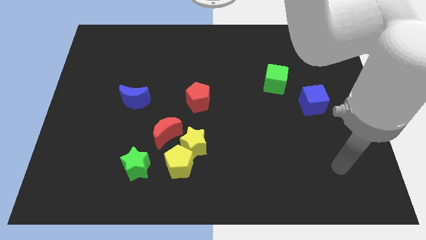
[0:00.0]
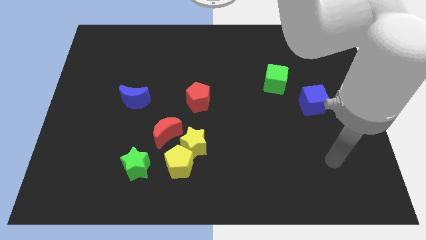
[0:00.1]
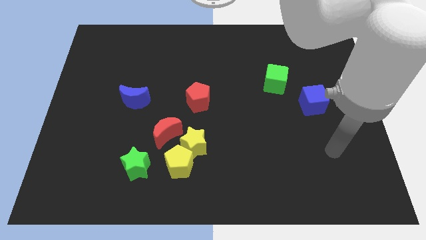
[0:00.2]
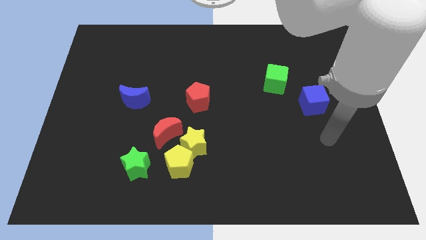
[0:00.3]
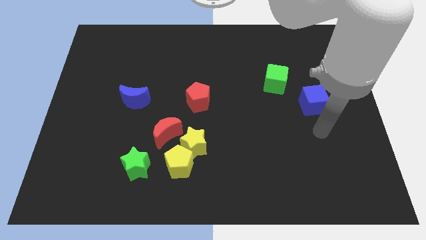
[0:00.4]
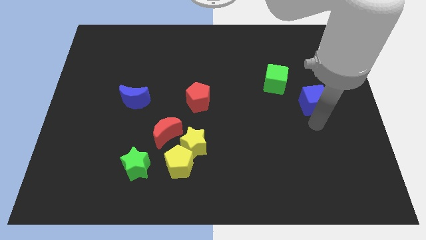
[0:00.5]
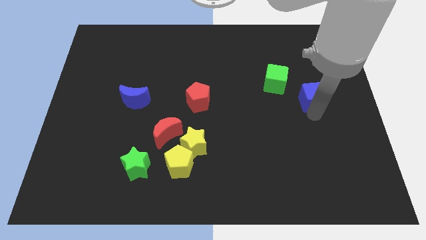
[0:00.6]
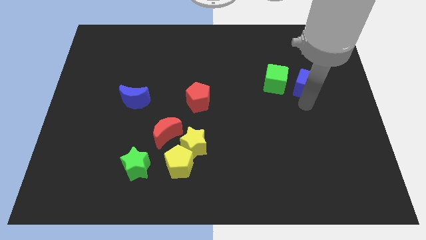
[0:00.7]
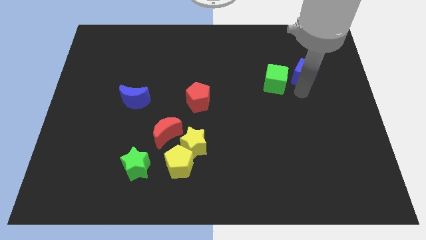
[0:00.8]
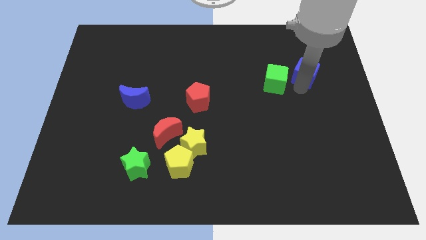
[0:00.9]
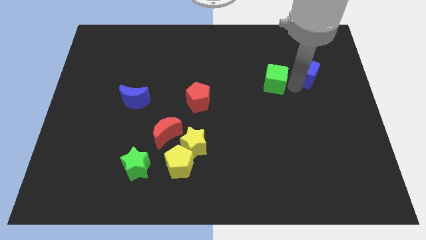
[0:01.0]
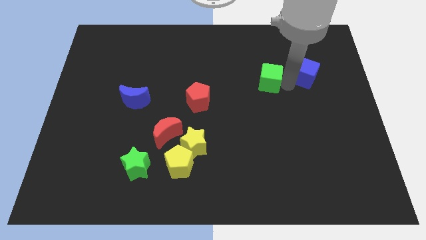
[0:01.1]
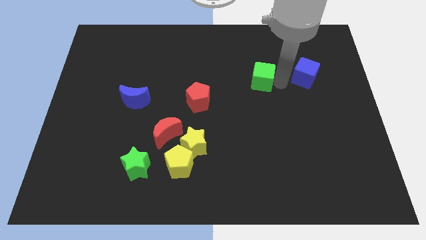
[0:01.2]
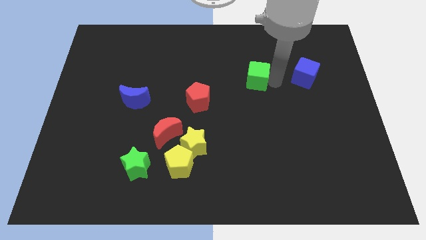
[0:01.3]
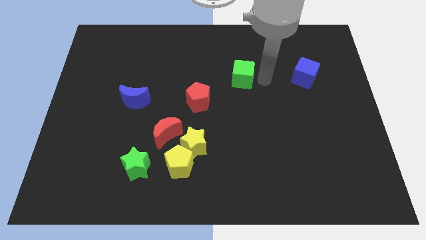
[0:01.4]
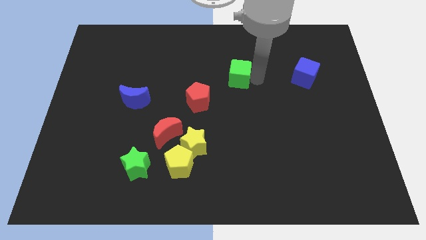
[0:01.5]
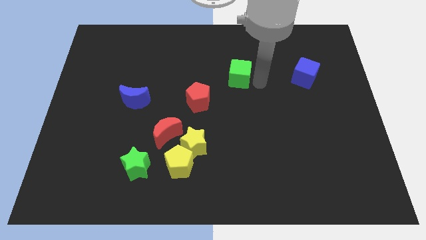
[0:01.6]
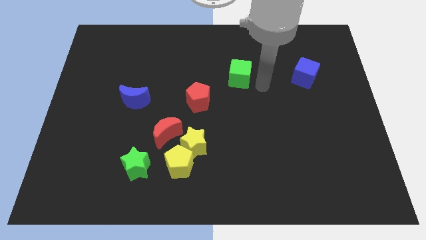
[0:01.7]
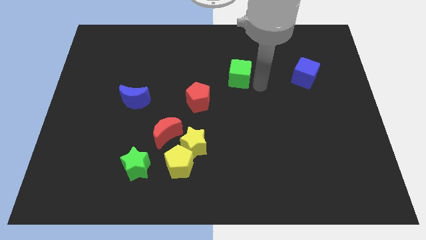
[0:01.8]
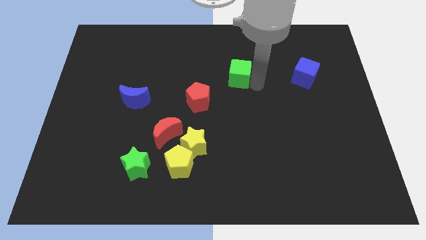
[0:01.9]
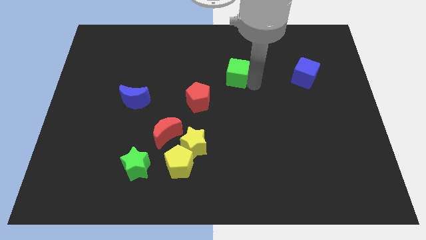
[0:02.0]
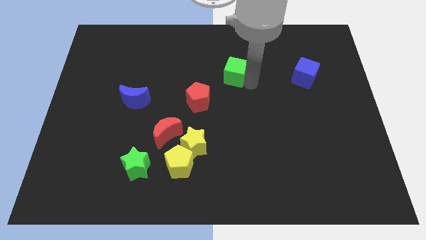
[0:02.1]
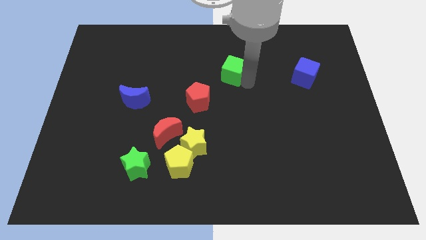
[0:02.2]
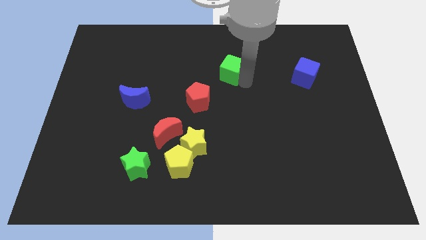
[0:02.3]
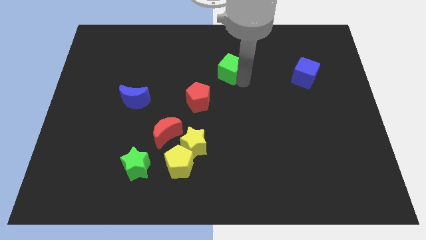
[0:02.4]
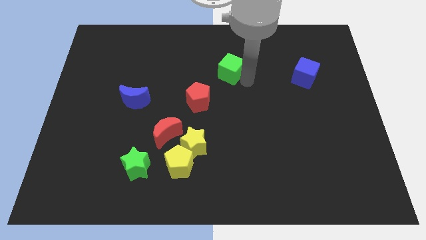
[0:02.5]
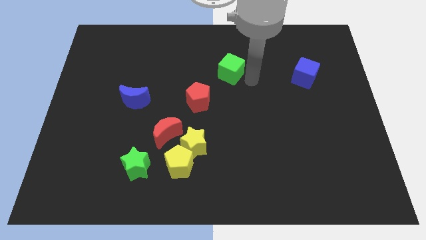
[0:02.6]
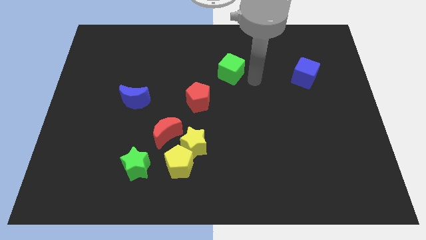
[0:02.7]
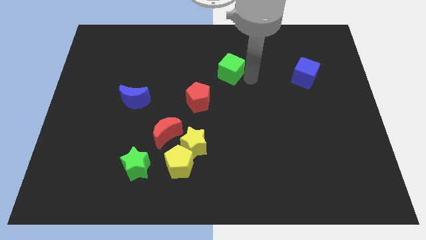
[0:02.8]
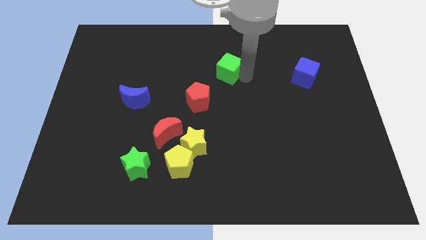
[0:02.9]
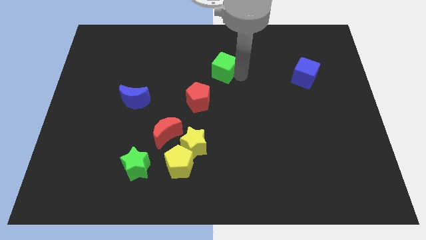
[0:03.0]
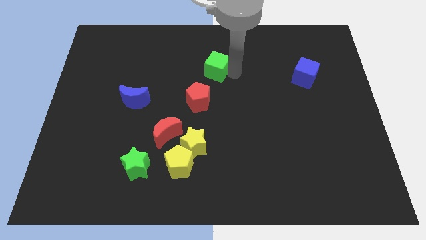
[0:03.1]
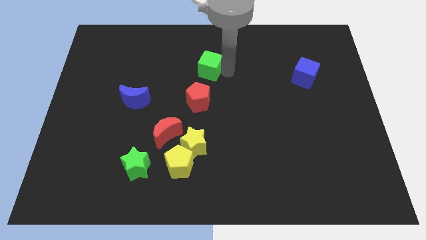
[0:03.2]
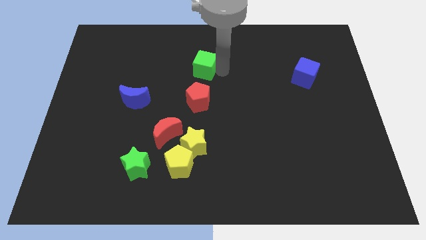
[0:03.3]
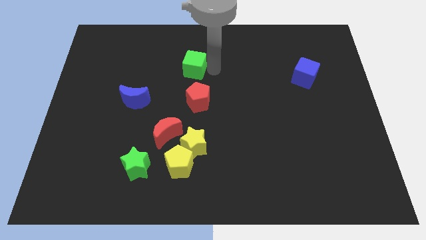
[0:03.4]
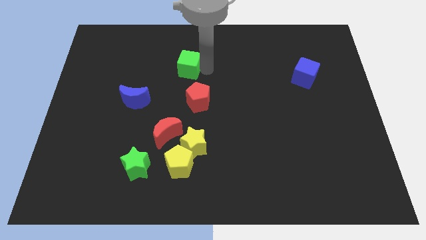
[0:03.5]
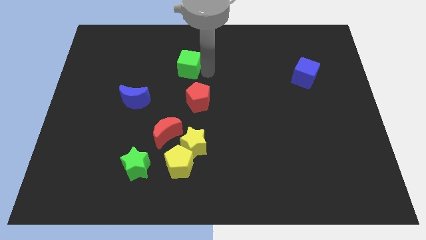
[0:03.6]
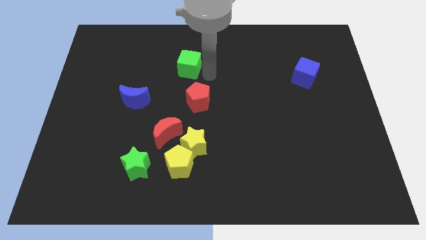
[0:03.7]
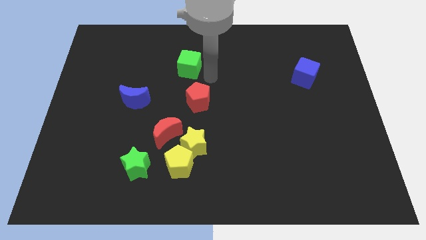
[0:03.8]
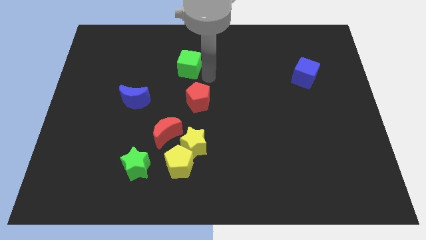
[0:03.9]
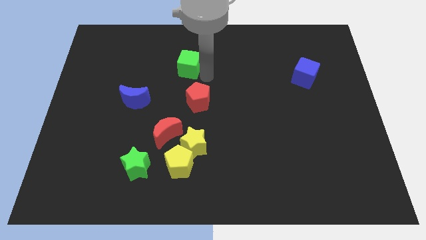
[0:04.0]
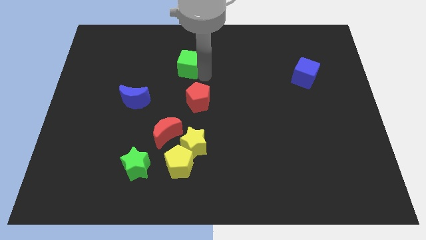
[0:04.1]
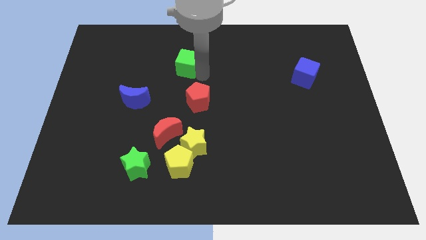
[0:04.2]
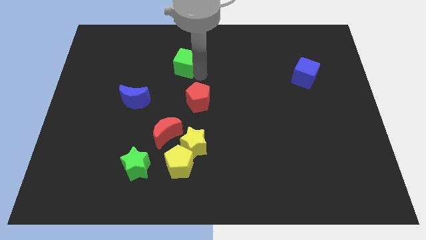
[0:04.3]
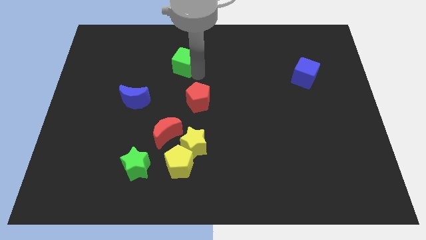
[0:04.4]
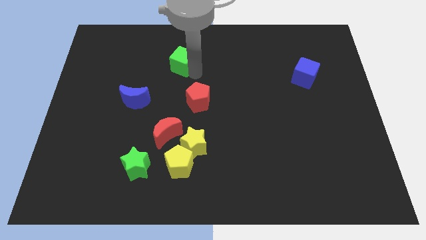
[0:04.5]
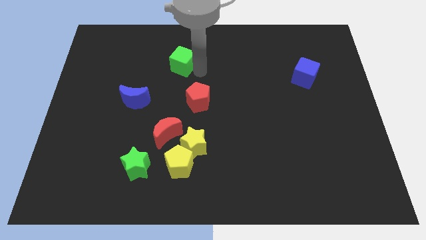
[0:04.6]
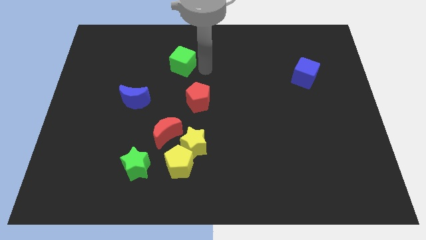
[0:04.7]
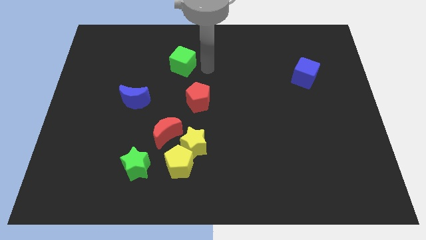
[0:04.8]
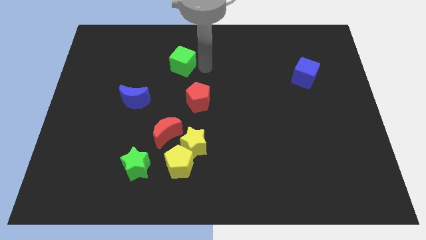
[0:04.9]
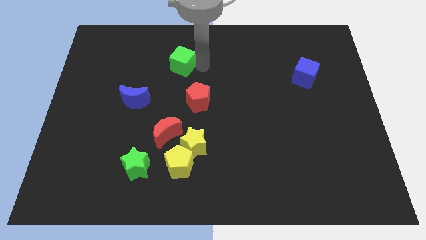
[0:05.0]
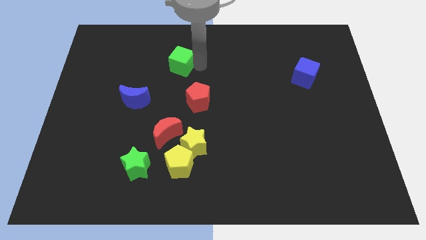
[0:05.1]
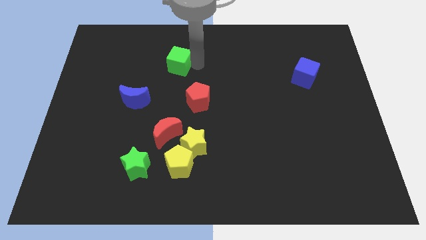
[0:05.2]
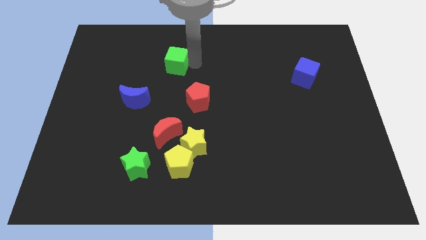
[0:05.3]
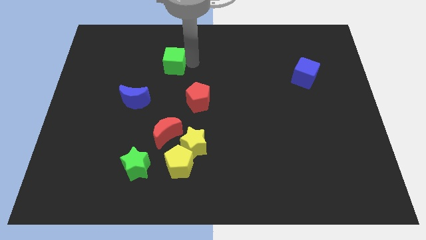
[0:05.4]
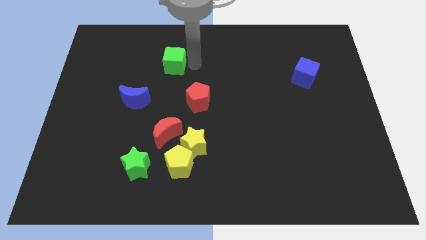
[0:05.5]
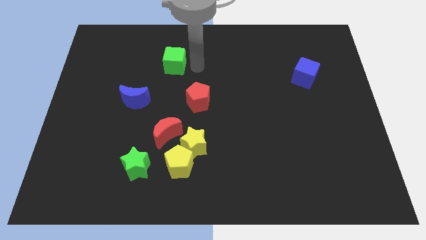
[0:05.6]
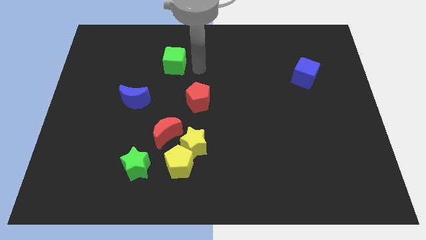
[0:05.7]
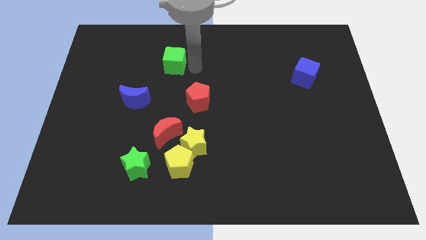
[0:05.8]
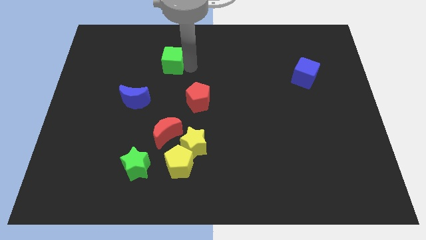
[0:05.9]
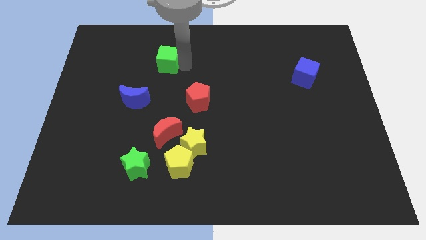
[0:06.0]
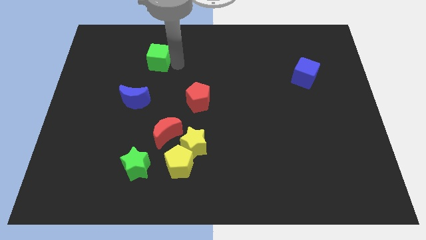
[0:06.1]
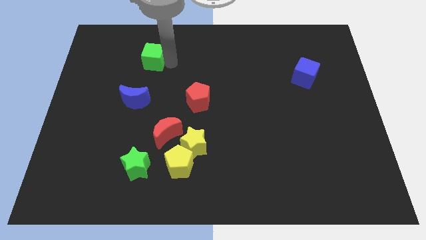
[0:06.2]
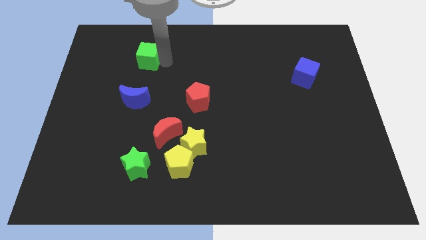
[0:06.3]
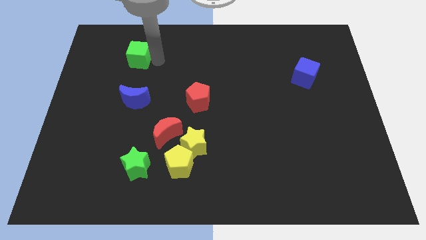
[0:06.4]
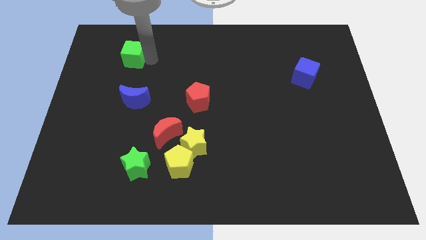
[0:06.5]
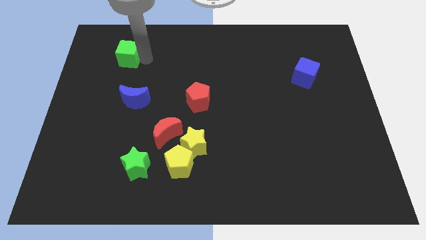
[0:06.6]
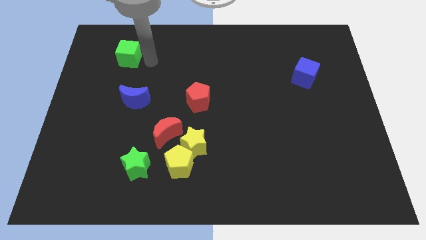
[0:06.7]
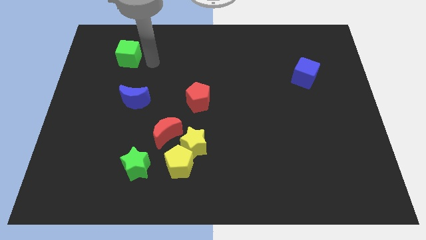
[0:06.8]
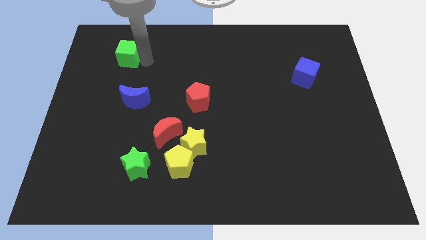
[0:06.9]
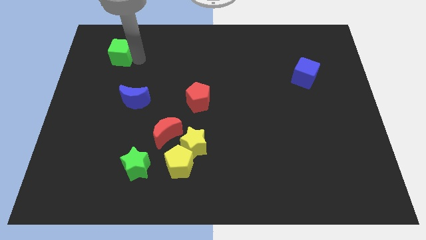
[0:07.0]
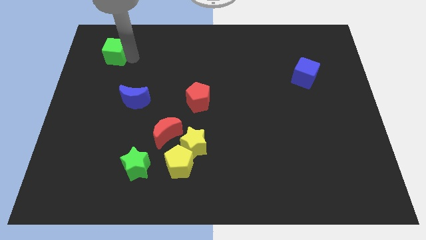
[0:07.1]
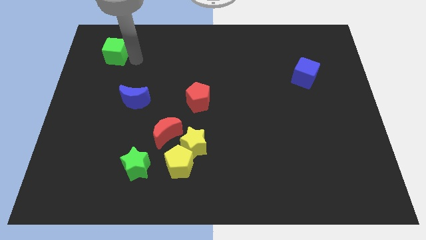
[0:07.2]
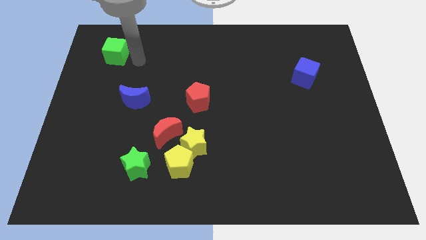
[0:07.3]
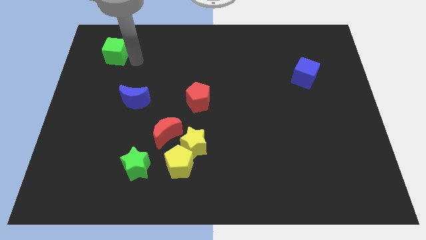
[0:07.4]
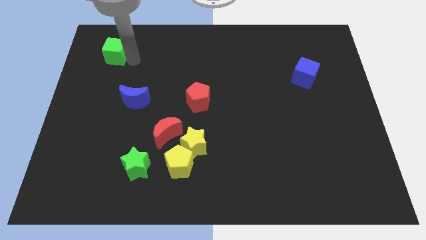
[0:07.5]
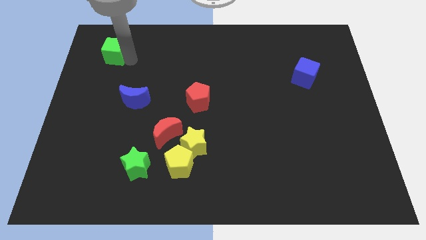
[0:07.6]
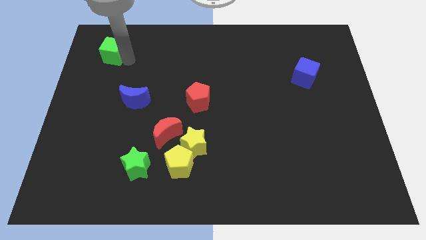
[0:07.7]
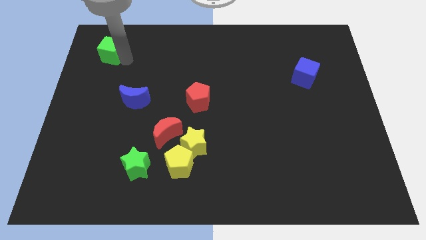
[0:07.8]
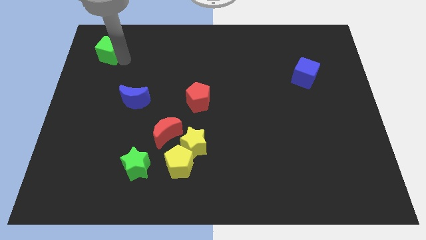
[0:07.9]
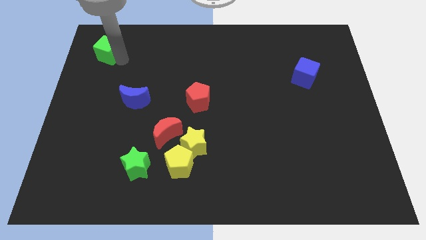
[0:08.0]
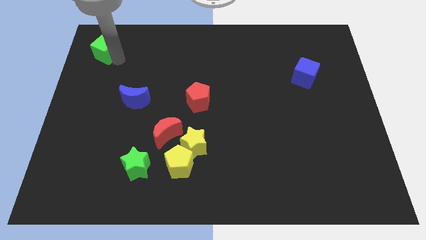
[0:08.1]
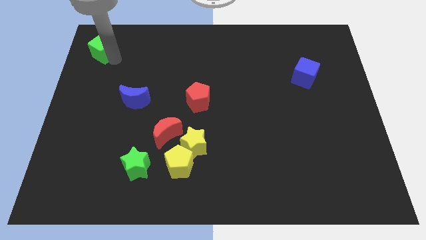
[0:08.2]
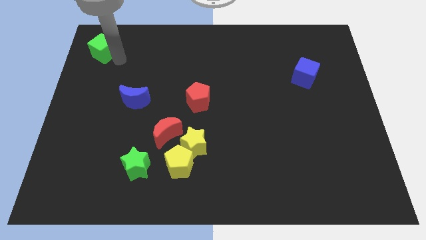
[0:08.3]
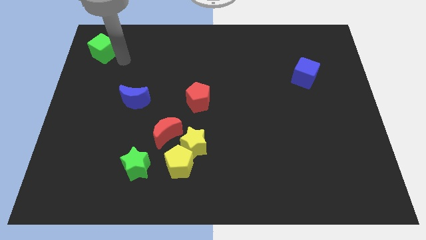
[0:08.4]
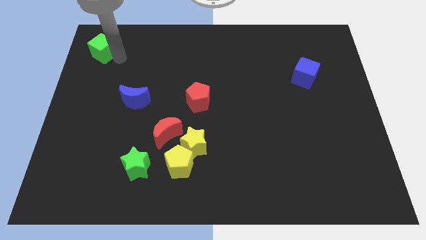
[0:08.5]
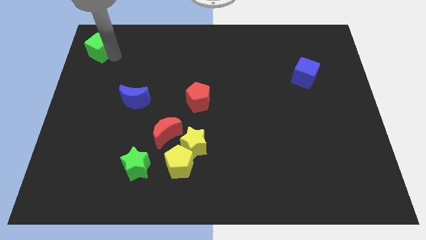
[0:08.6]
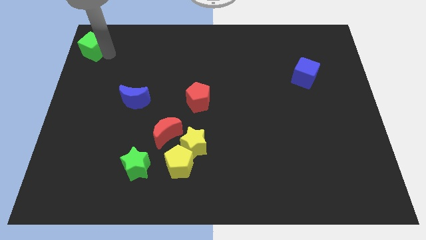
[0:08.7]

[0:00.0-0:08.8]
push the green cube to the top left of the board
